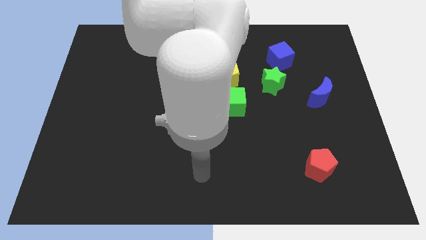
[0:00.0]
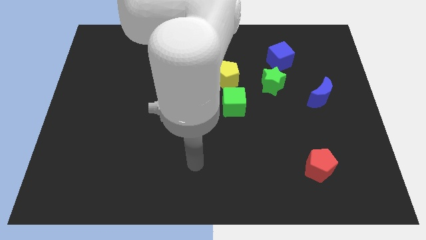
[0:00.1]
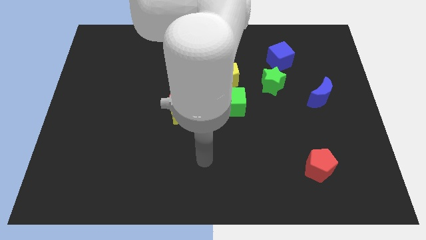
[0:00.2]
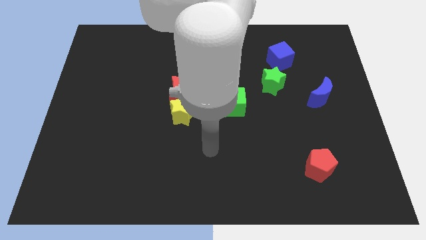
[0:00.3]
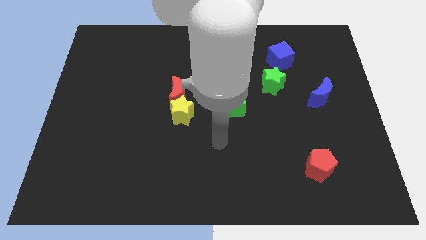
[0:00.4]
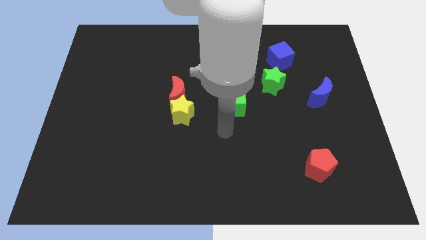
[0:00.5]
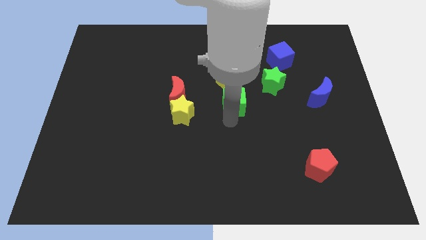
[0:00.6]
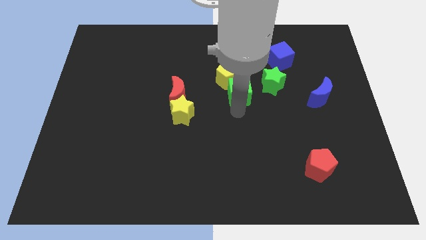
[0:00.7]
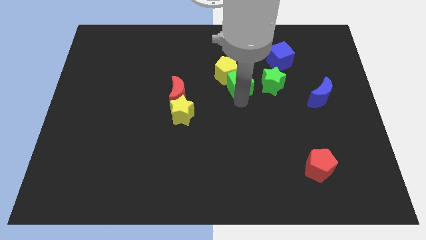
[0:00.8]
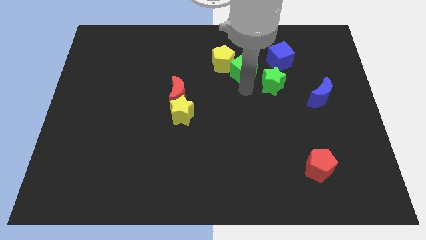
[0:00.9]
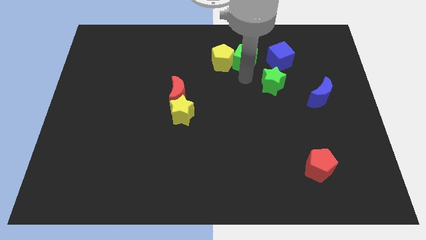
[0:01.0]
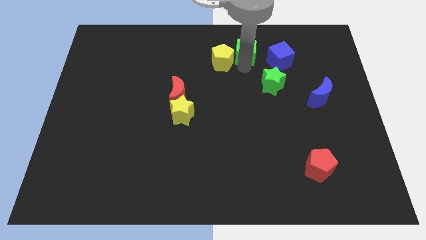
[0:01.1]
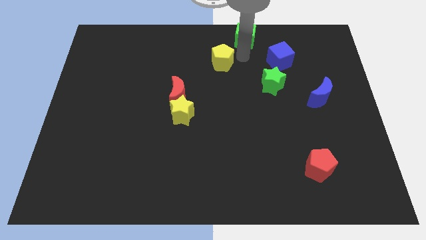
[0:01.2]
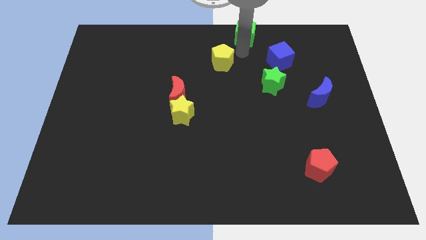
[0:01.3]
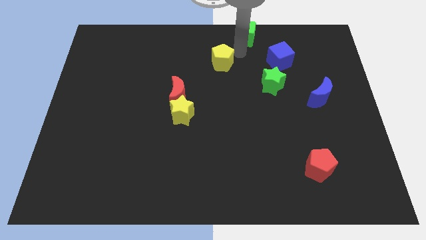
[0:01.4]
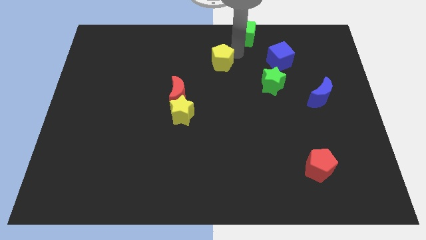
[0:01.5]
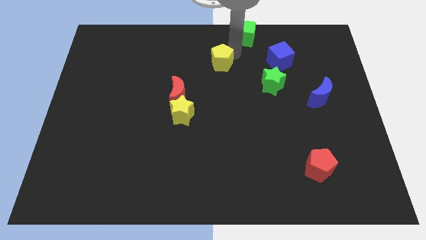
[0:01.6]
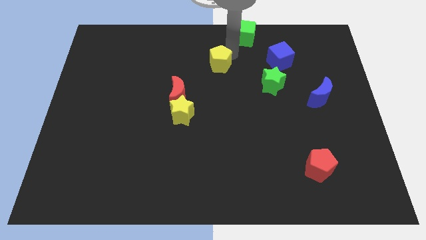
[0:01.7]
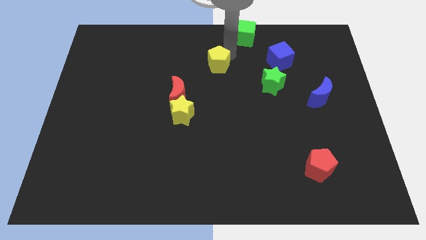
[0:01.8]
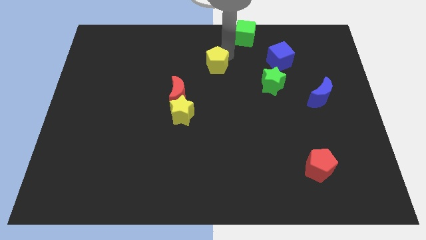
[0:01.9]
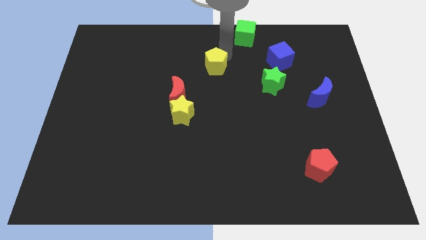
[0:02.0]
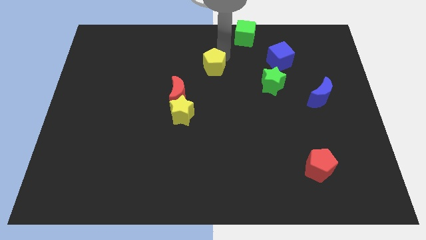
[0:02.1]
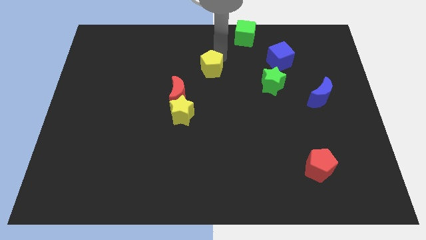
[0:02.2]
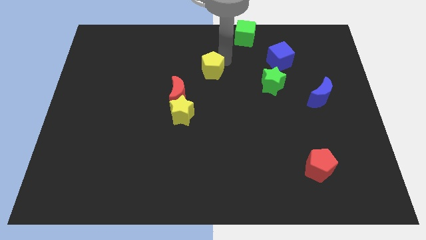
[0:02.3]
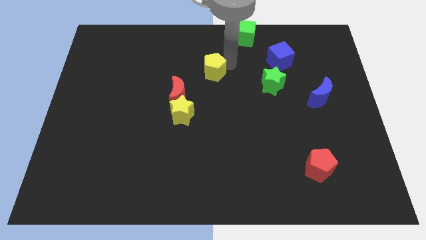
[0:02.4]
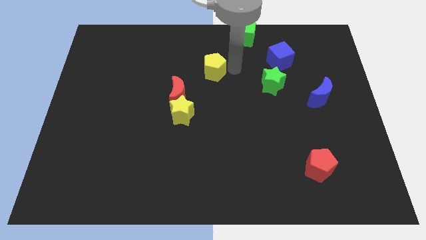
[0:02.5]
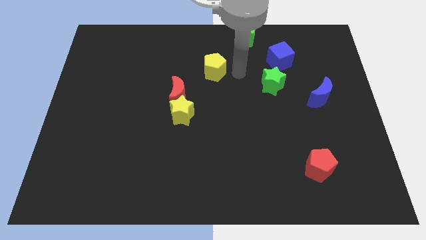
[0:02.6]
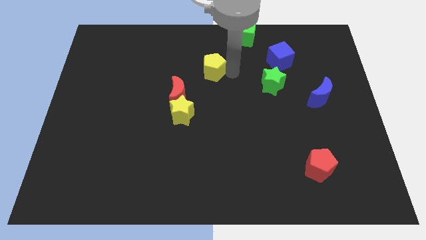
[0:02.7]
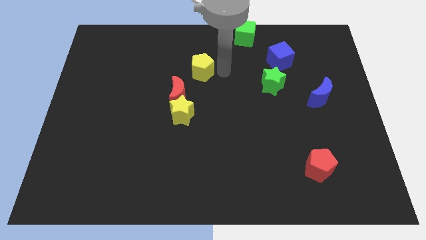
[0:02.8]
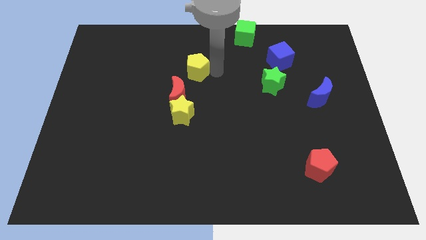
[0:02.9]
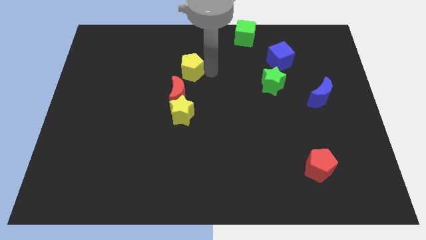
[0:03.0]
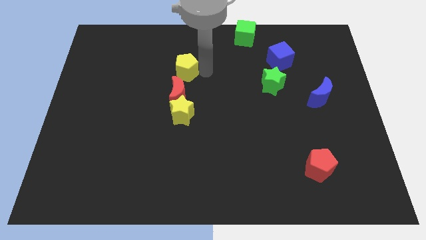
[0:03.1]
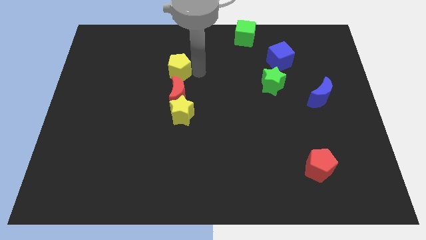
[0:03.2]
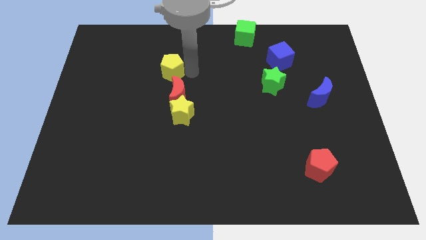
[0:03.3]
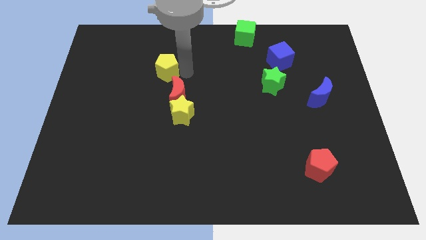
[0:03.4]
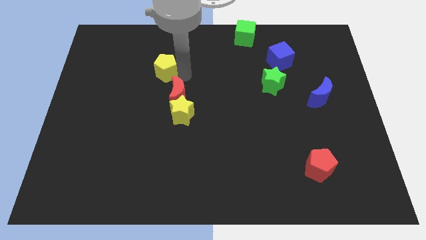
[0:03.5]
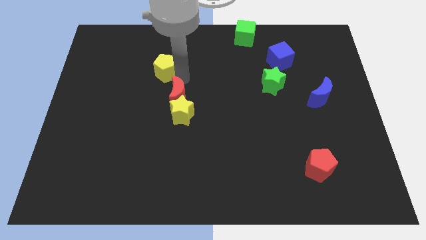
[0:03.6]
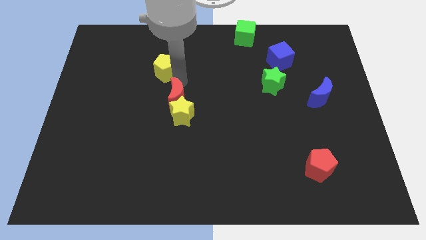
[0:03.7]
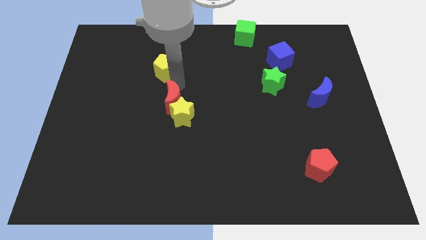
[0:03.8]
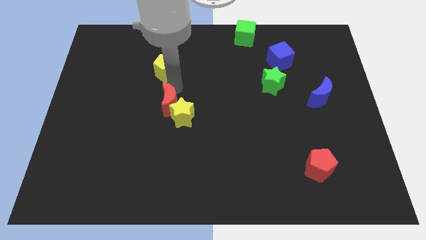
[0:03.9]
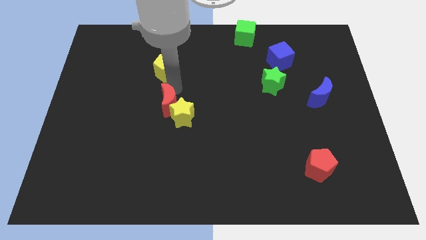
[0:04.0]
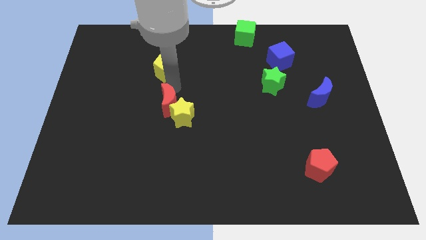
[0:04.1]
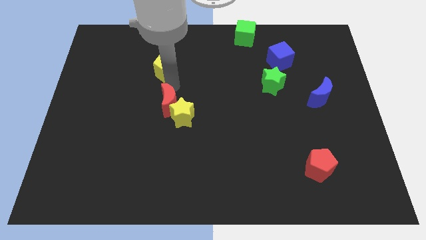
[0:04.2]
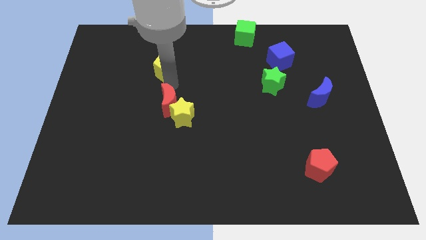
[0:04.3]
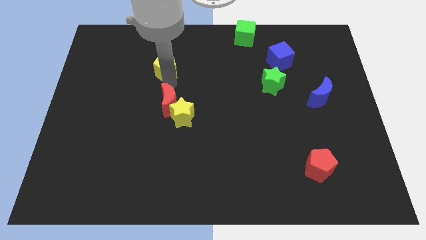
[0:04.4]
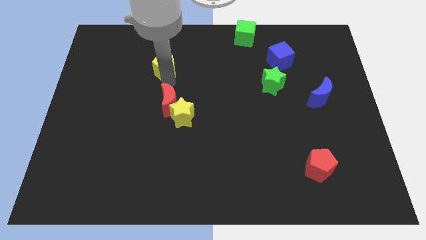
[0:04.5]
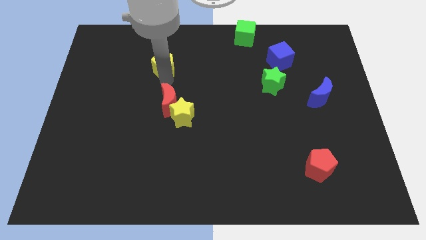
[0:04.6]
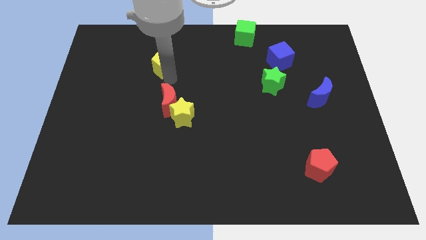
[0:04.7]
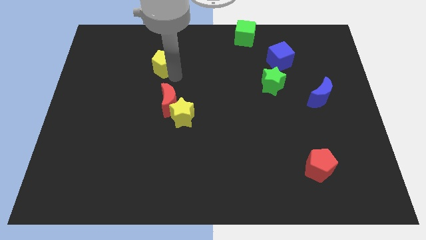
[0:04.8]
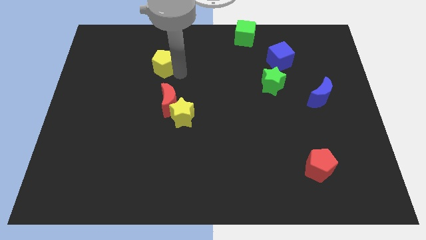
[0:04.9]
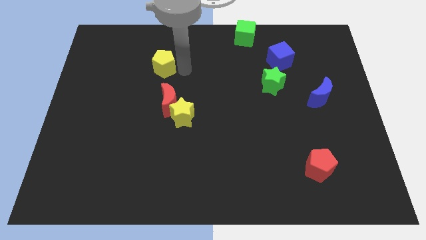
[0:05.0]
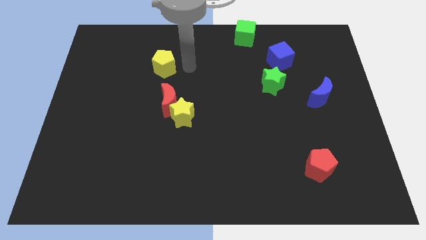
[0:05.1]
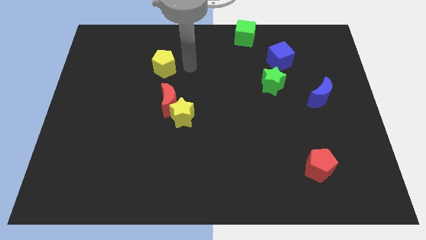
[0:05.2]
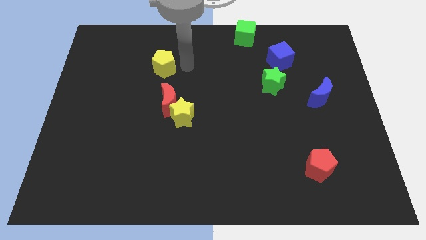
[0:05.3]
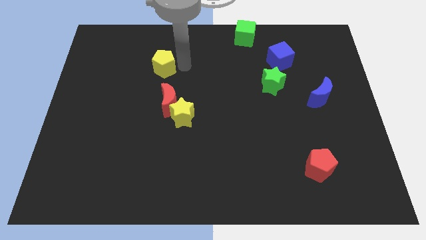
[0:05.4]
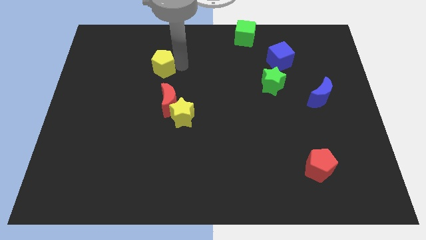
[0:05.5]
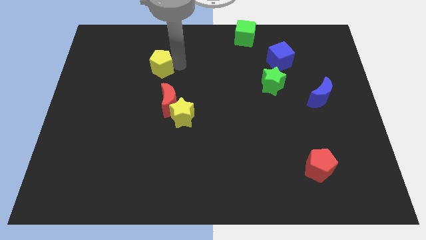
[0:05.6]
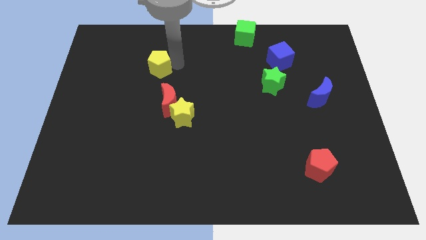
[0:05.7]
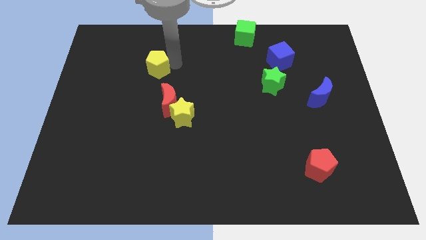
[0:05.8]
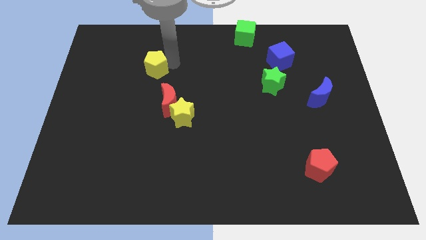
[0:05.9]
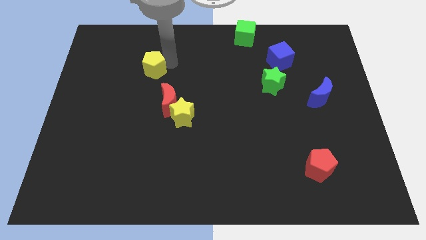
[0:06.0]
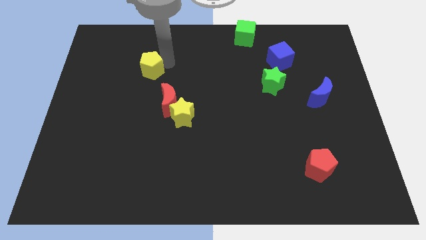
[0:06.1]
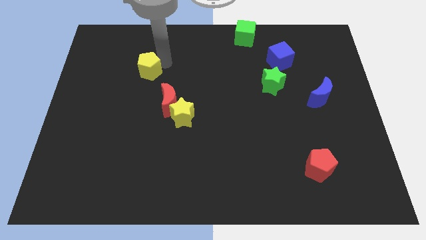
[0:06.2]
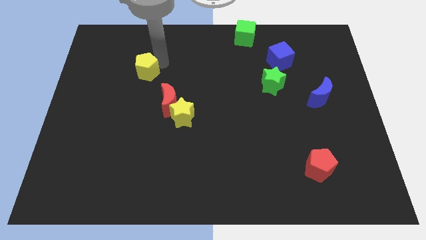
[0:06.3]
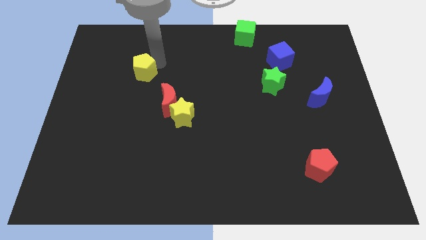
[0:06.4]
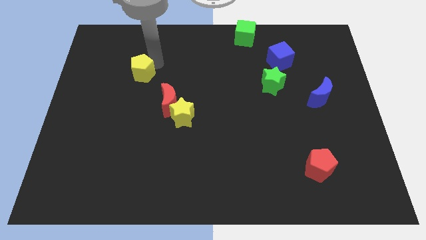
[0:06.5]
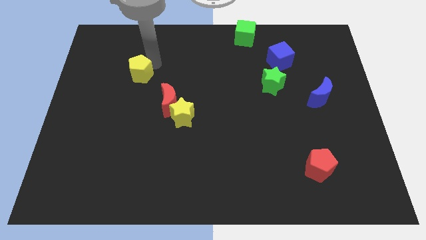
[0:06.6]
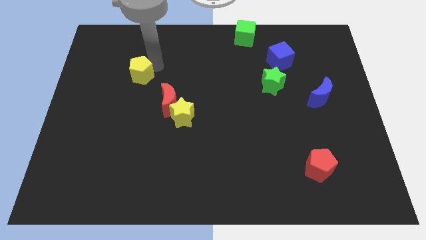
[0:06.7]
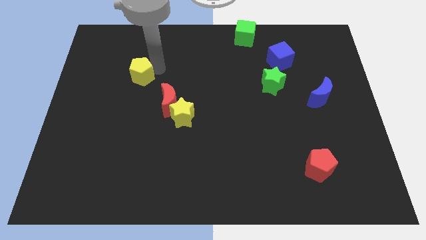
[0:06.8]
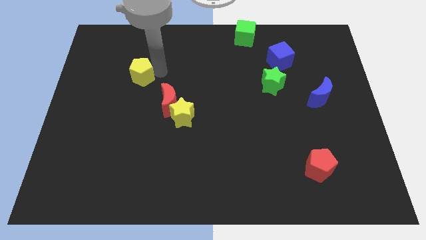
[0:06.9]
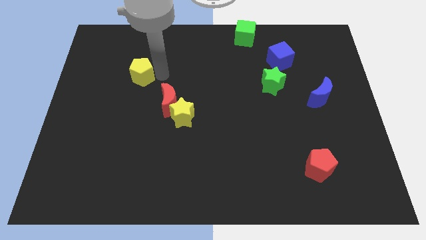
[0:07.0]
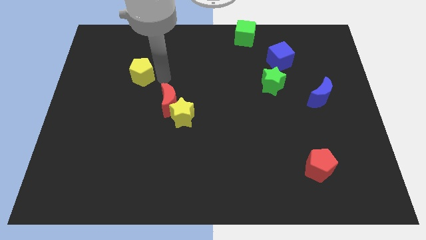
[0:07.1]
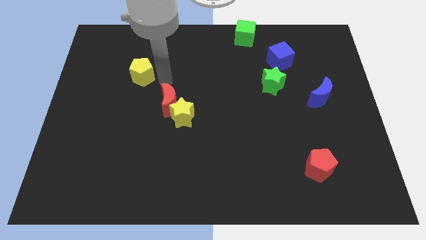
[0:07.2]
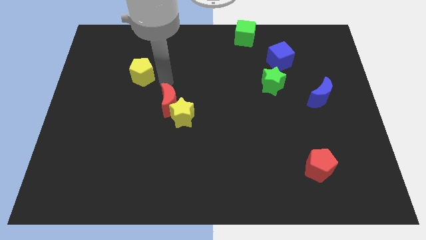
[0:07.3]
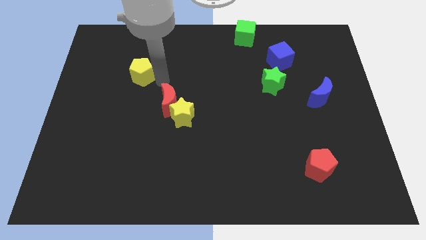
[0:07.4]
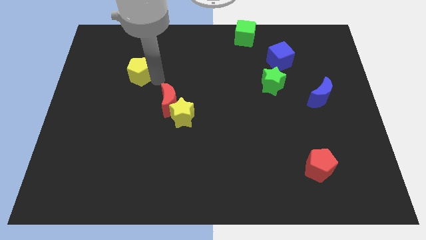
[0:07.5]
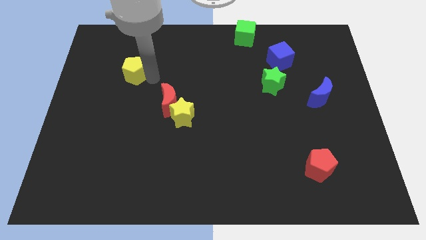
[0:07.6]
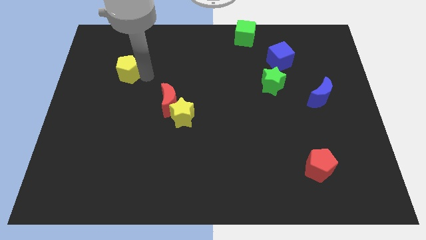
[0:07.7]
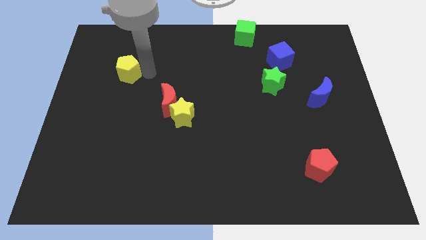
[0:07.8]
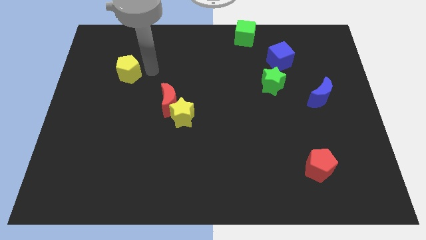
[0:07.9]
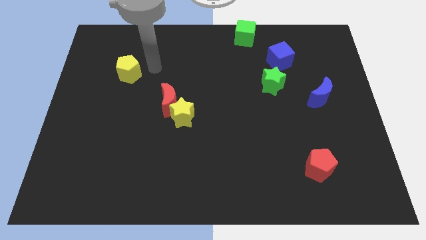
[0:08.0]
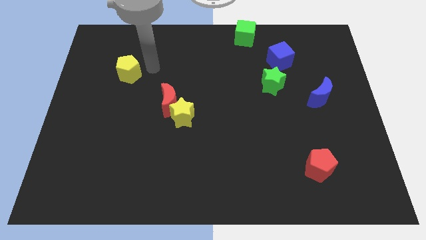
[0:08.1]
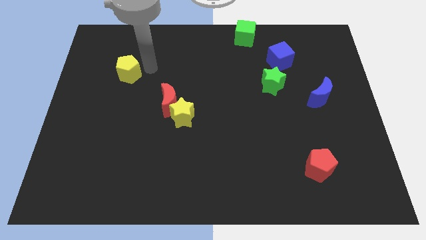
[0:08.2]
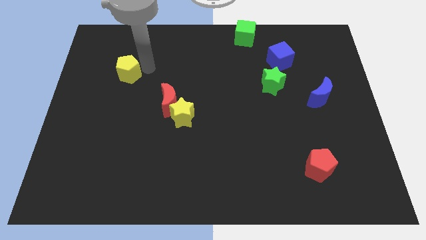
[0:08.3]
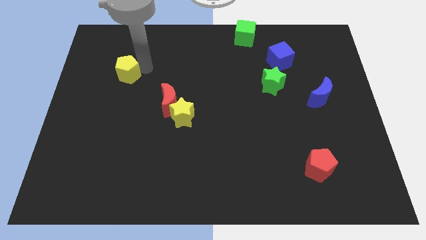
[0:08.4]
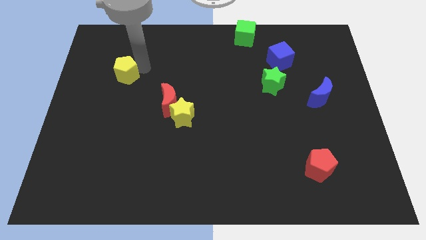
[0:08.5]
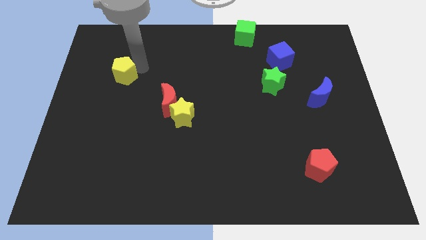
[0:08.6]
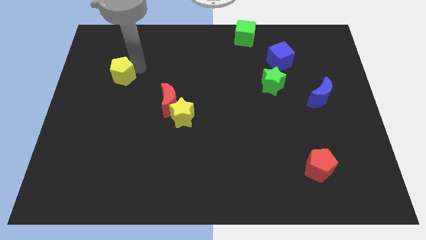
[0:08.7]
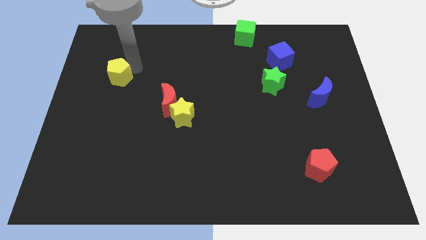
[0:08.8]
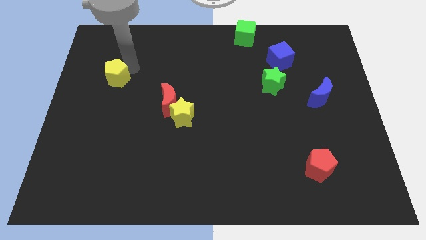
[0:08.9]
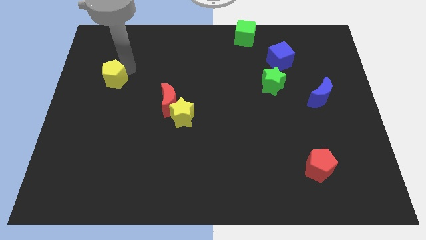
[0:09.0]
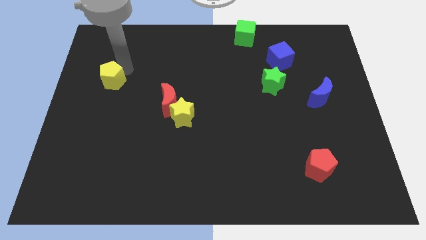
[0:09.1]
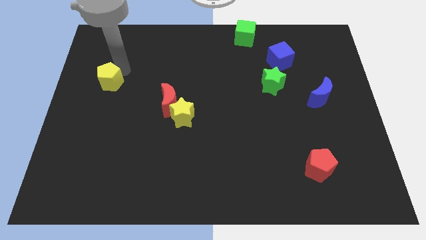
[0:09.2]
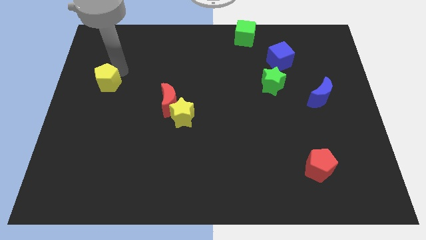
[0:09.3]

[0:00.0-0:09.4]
put the yellow pentagon to the center left
